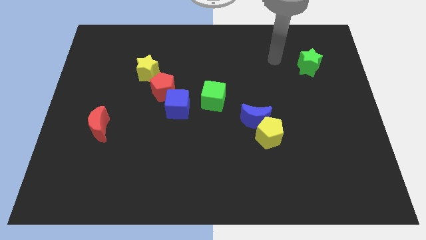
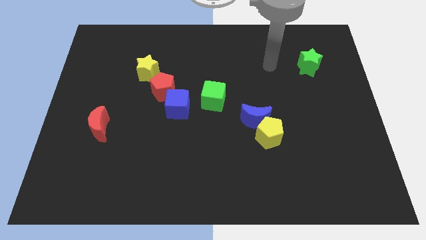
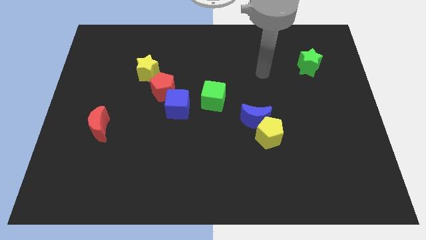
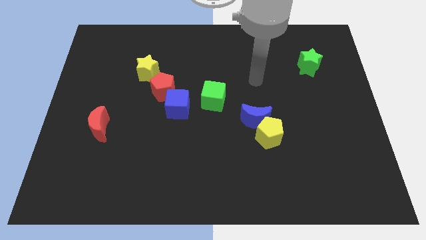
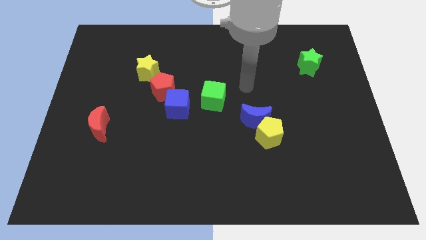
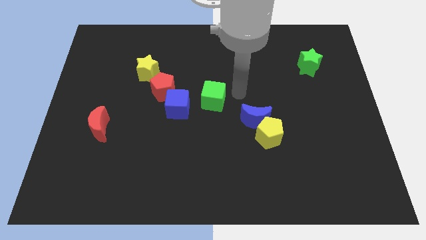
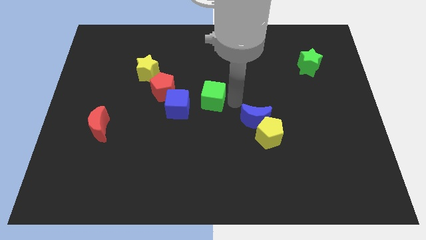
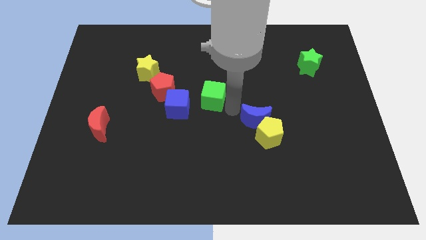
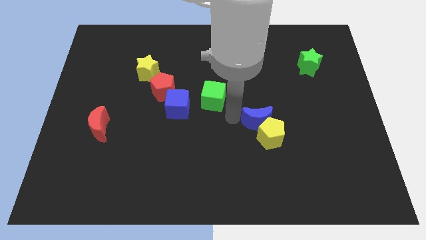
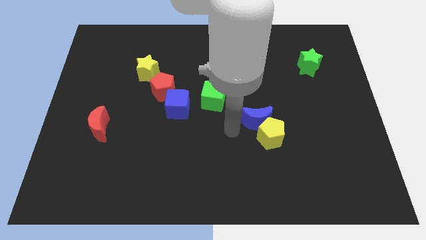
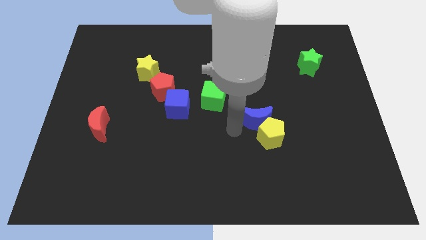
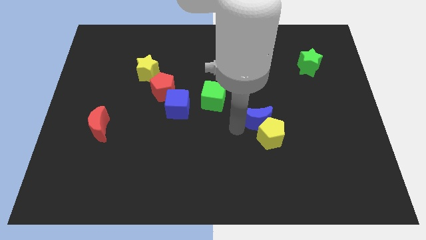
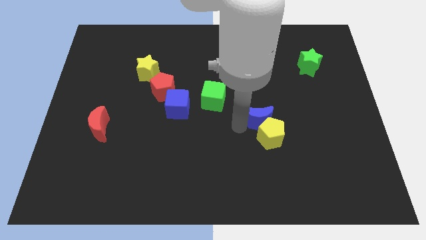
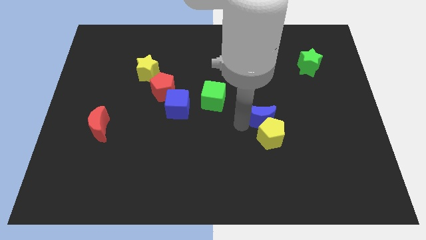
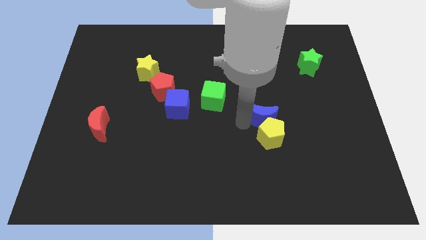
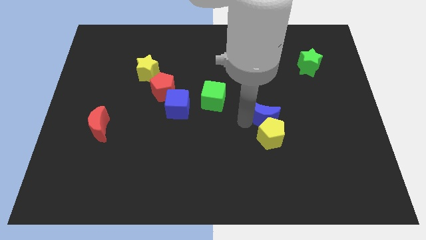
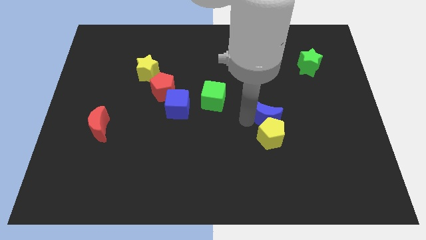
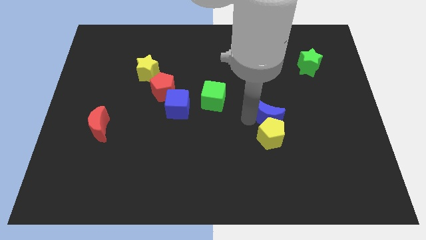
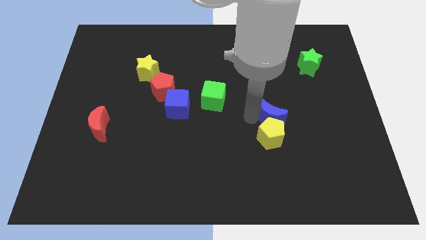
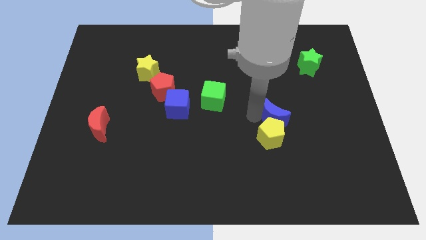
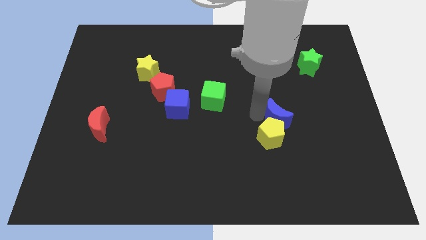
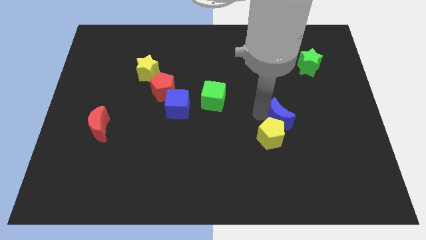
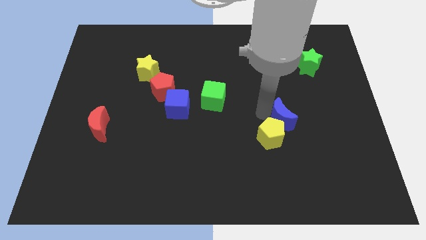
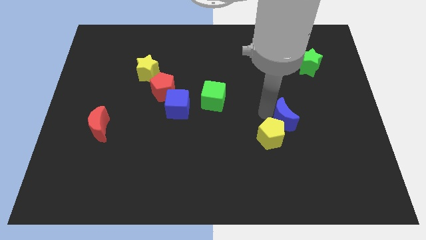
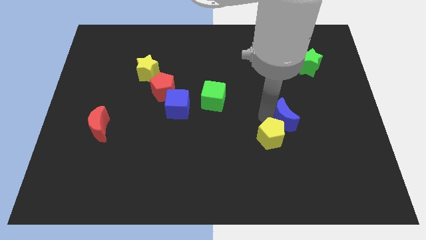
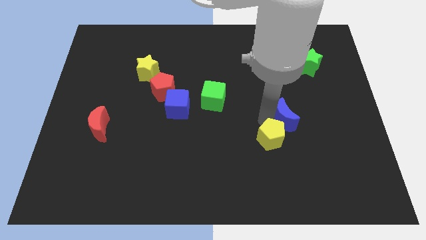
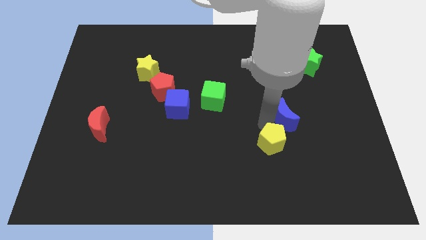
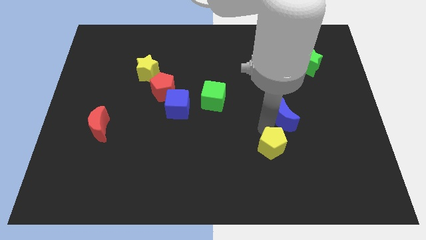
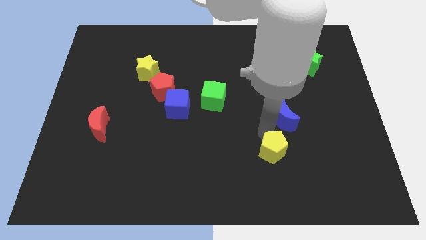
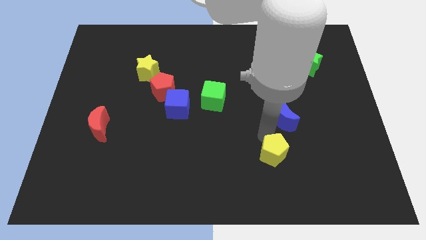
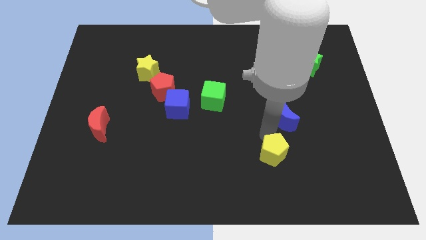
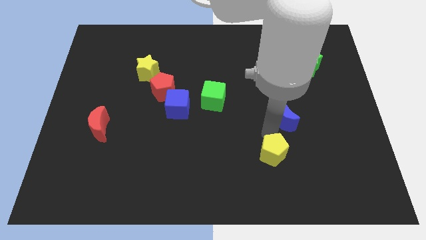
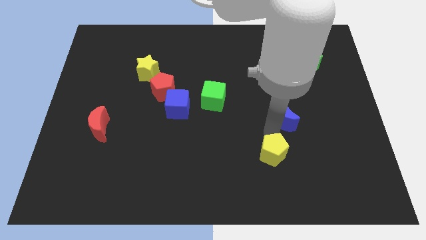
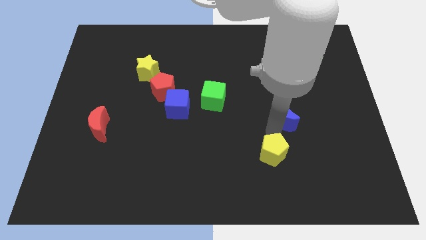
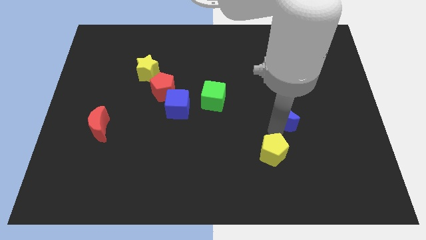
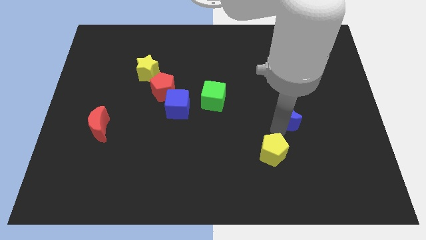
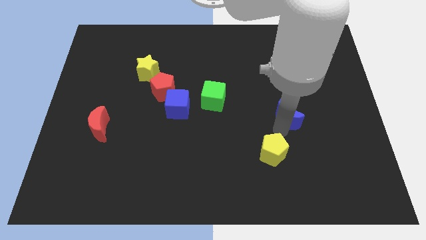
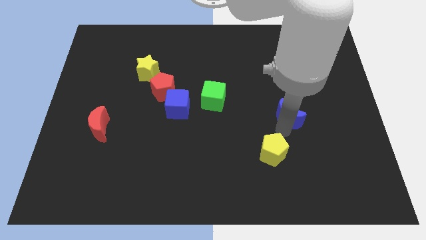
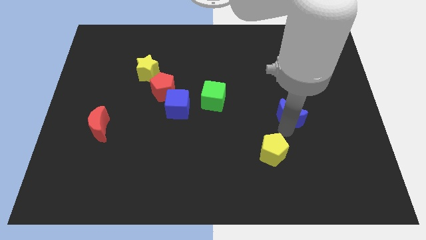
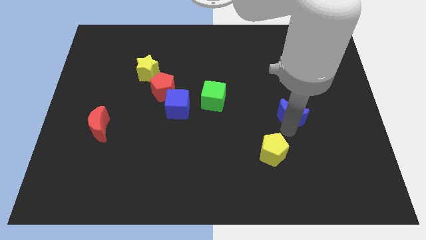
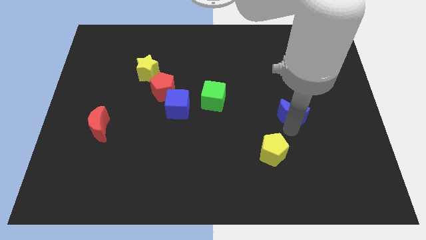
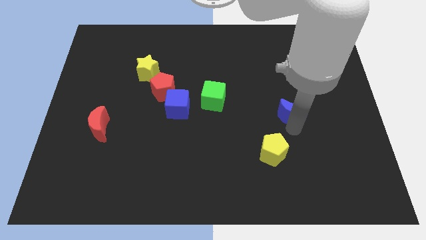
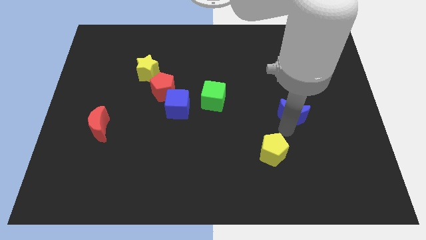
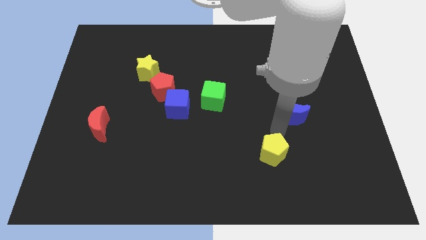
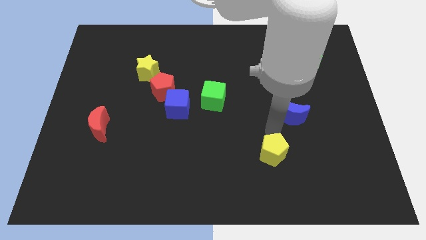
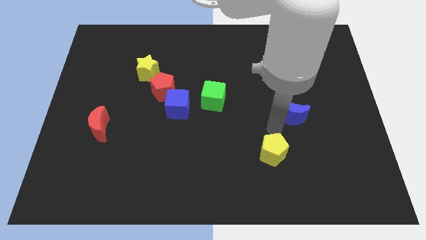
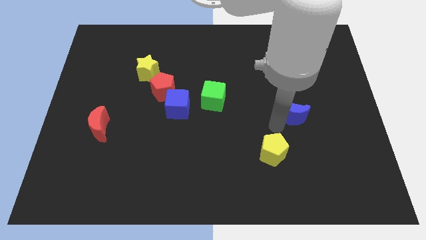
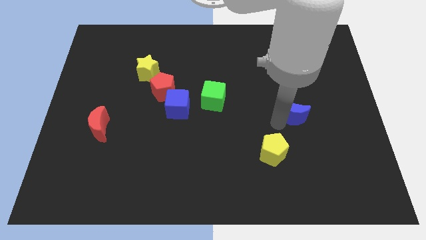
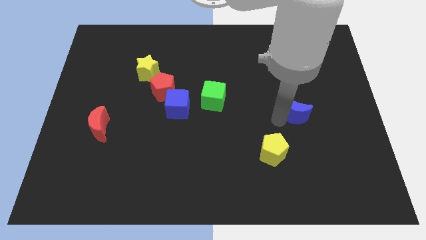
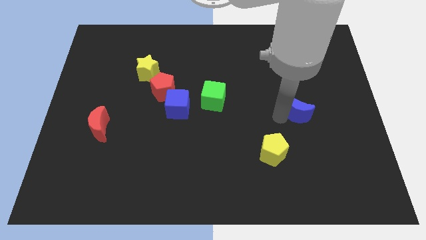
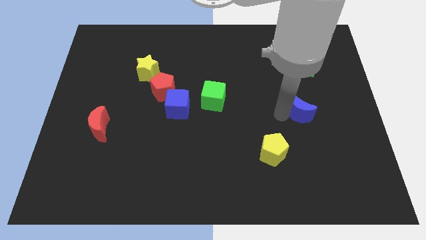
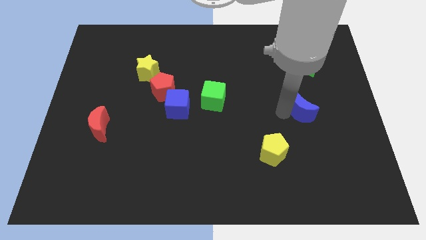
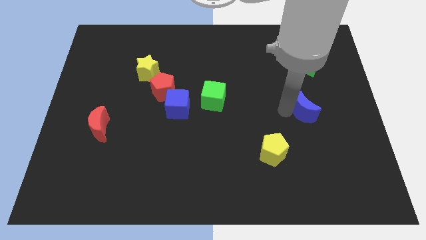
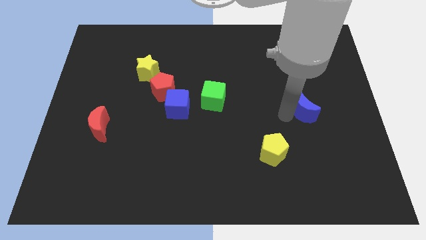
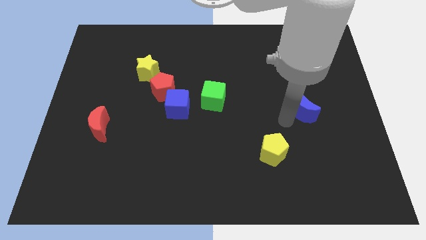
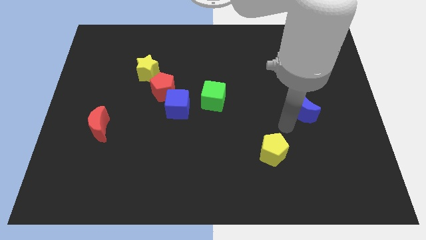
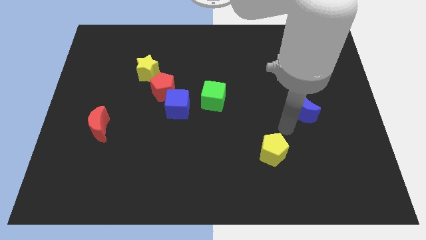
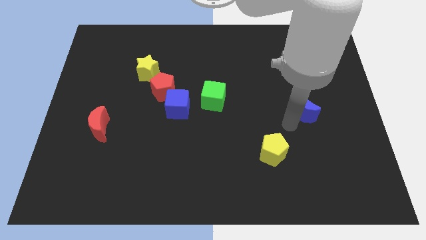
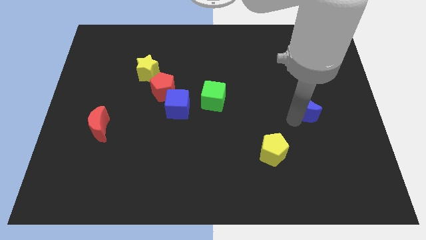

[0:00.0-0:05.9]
slide the blue moon to the bottom of the green star
